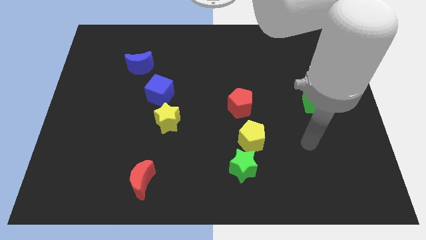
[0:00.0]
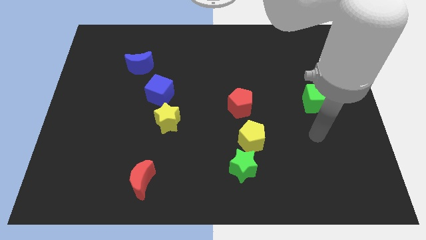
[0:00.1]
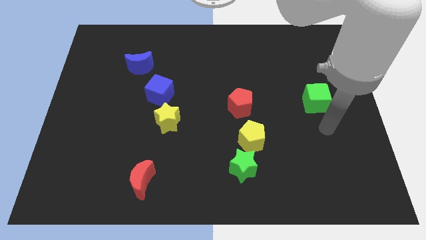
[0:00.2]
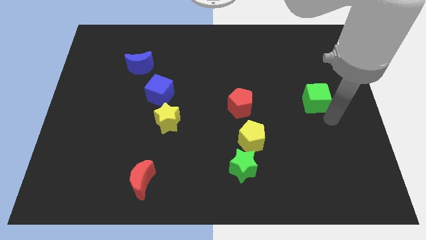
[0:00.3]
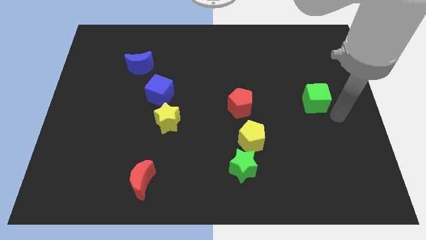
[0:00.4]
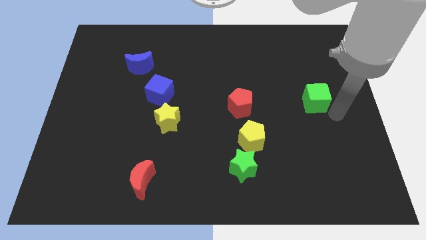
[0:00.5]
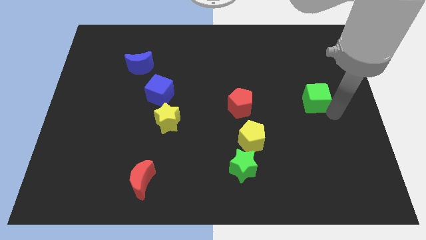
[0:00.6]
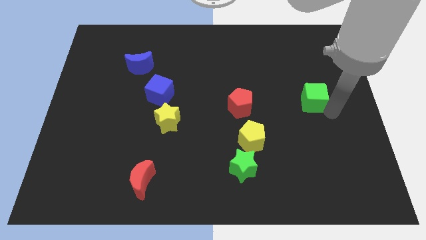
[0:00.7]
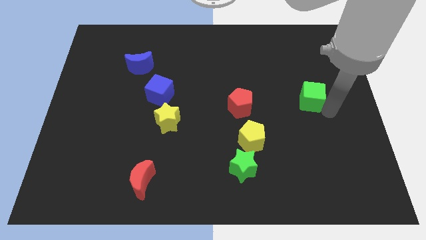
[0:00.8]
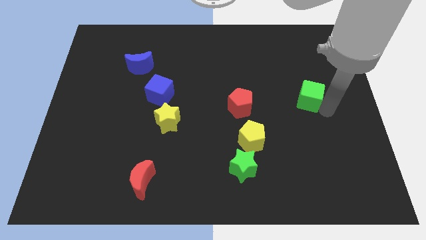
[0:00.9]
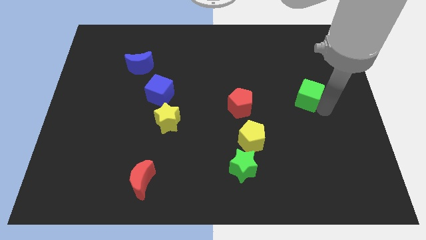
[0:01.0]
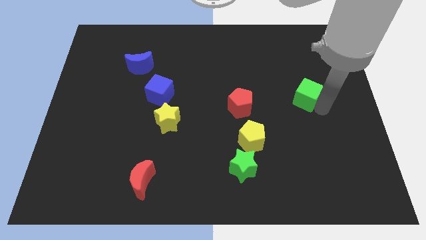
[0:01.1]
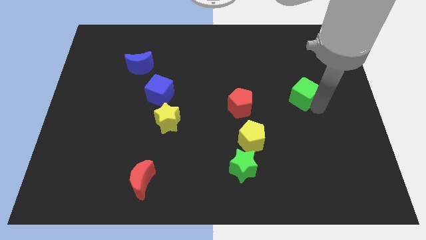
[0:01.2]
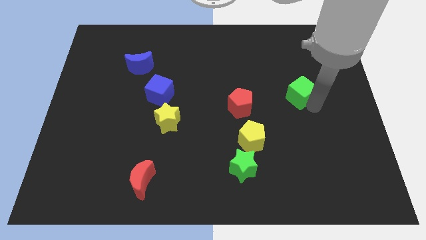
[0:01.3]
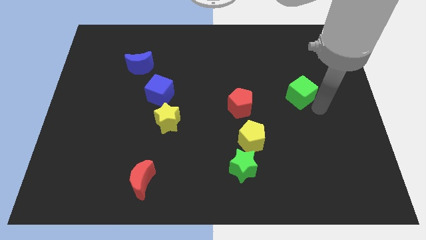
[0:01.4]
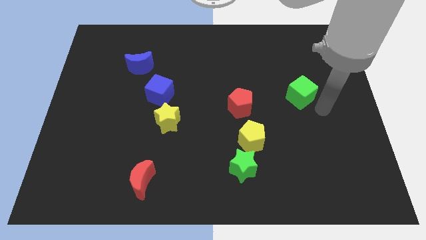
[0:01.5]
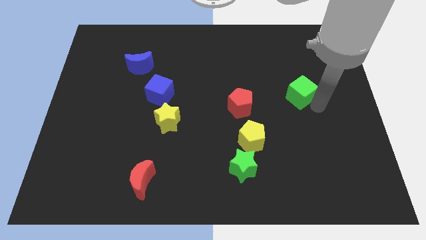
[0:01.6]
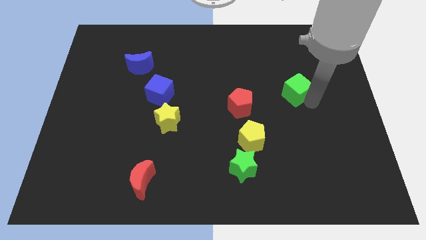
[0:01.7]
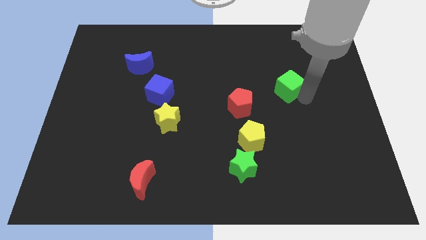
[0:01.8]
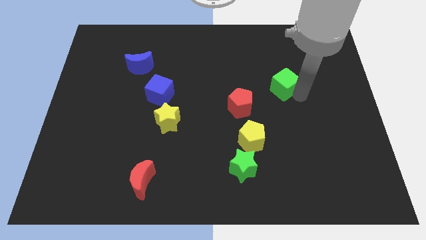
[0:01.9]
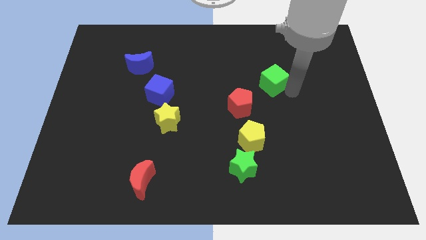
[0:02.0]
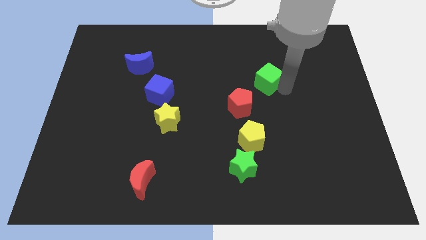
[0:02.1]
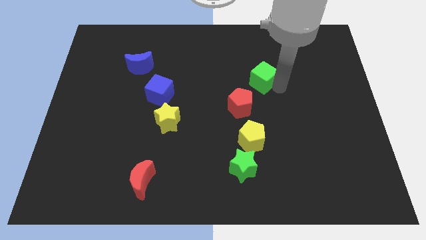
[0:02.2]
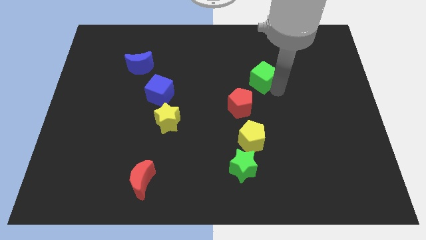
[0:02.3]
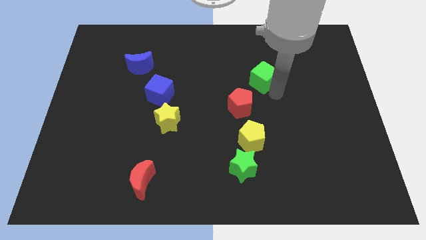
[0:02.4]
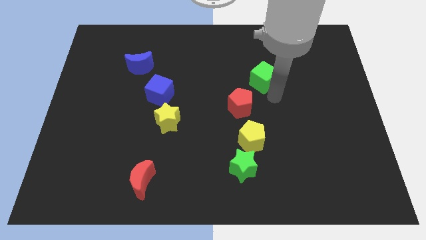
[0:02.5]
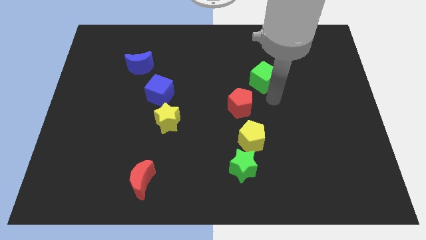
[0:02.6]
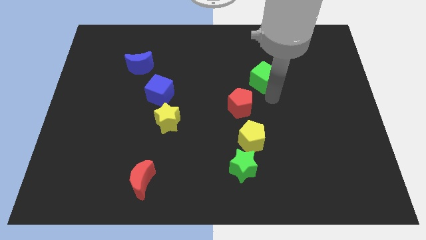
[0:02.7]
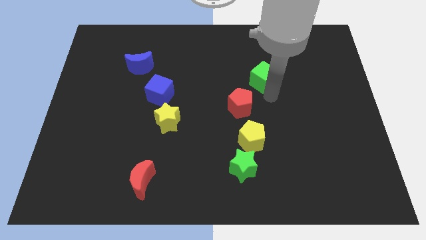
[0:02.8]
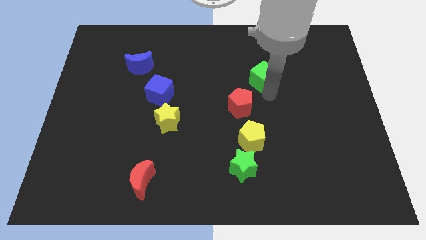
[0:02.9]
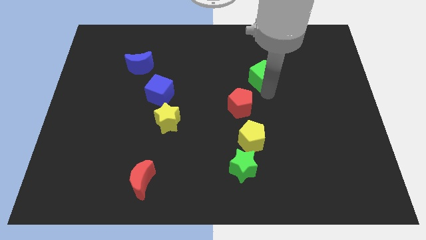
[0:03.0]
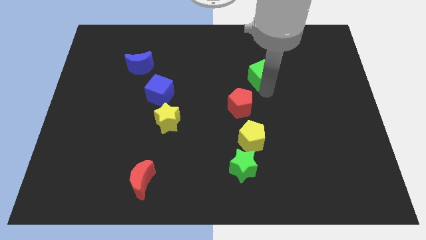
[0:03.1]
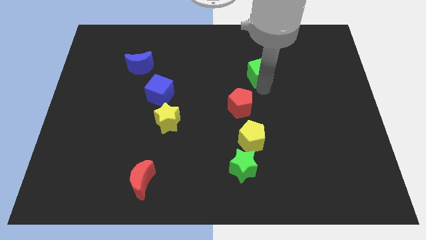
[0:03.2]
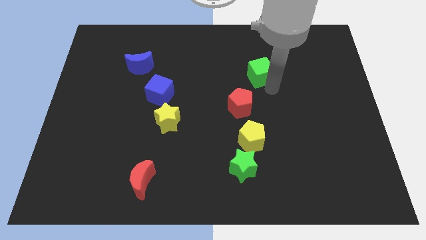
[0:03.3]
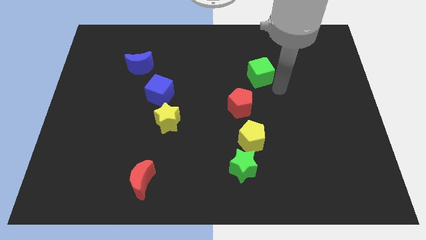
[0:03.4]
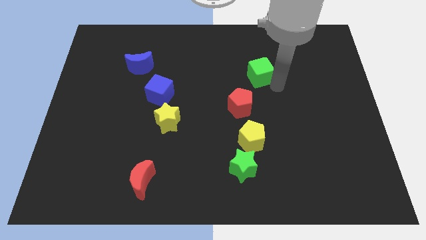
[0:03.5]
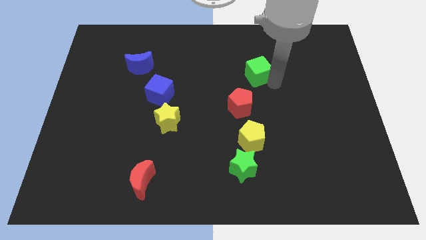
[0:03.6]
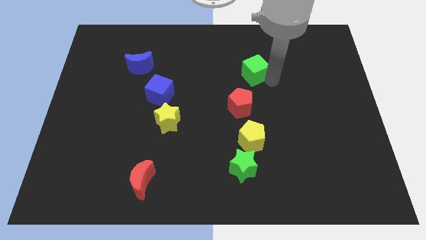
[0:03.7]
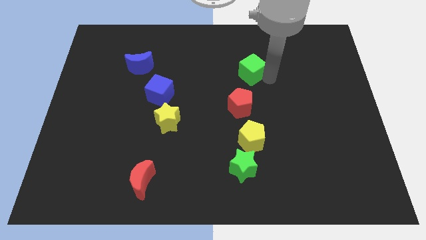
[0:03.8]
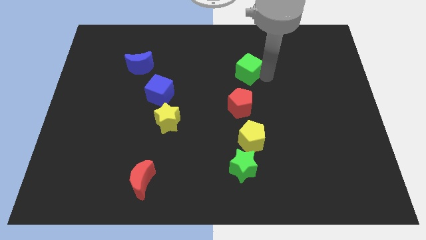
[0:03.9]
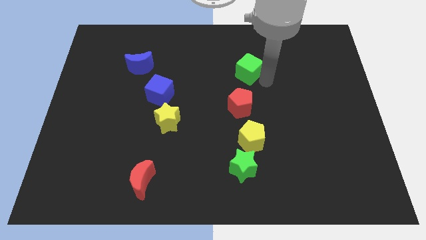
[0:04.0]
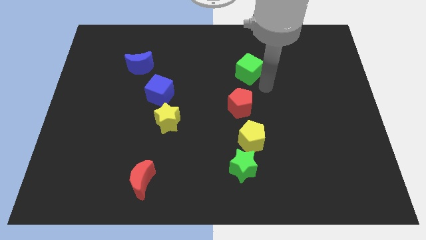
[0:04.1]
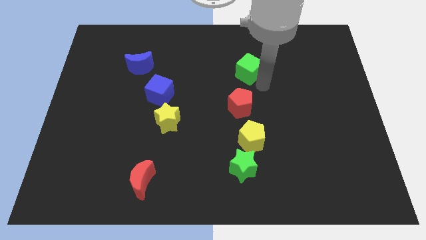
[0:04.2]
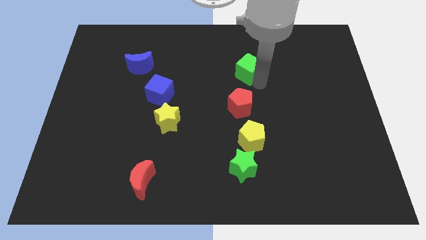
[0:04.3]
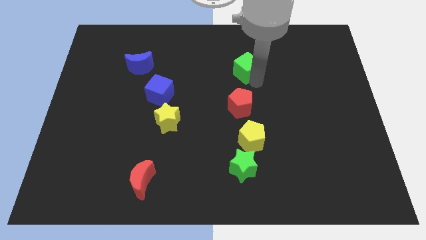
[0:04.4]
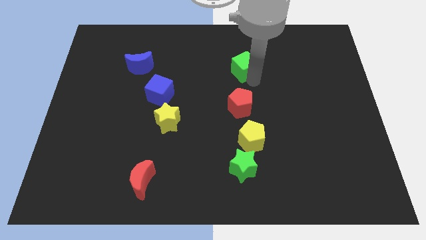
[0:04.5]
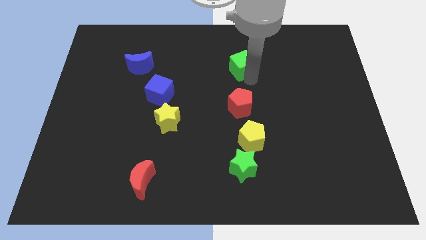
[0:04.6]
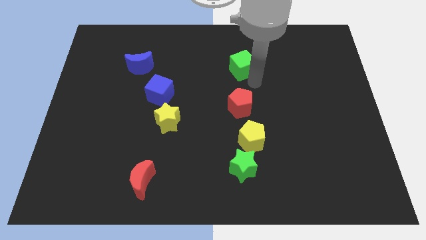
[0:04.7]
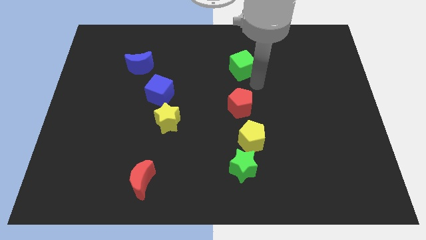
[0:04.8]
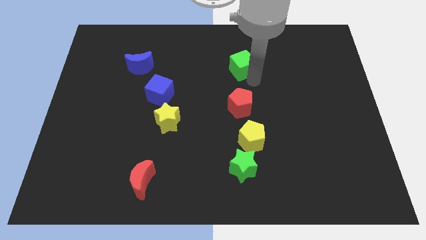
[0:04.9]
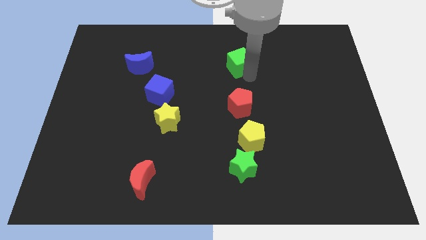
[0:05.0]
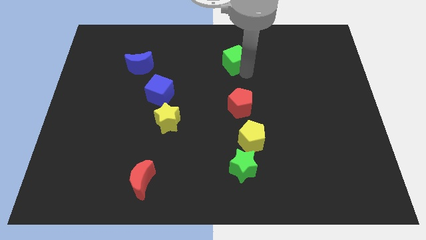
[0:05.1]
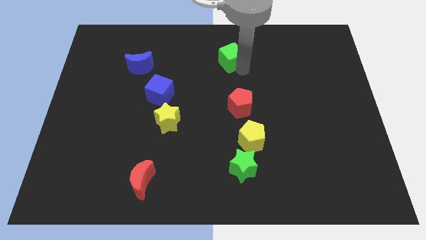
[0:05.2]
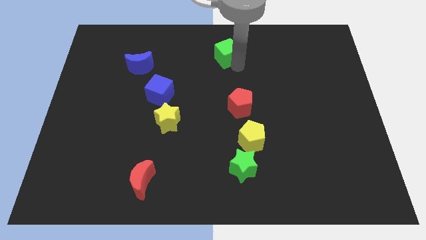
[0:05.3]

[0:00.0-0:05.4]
push the green cube to the top

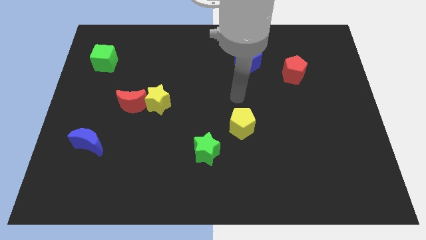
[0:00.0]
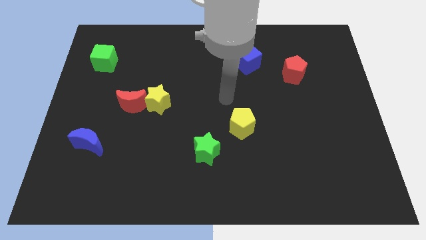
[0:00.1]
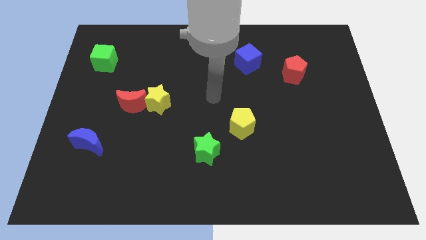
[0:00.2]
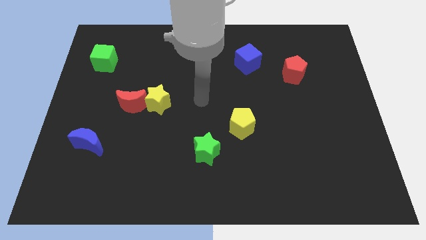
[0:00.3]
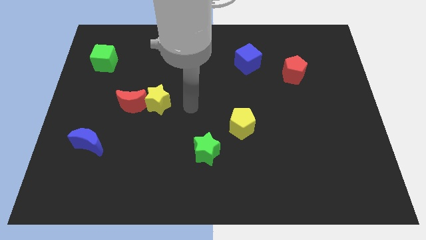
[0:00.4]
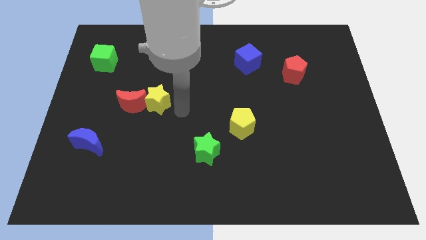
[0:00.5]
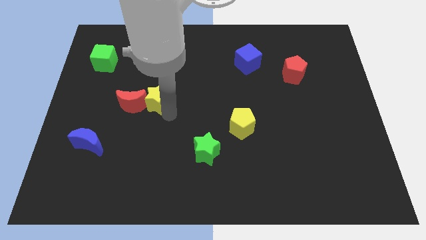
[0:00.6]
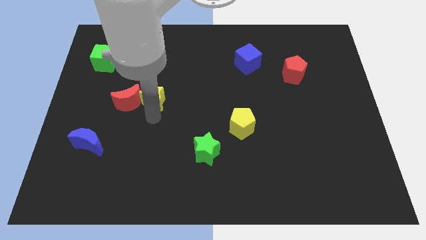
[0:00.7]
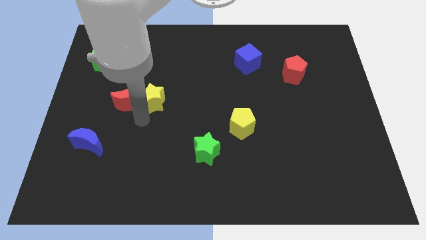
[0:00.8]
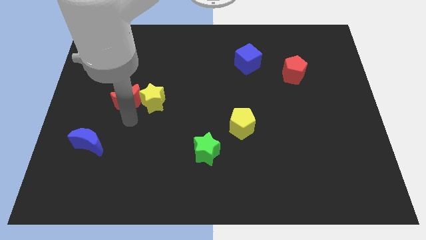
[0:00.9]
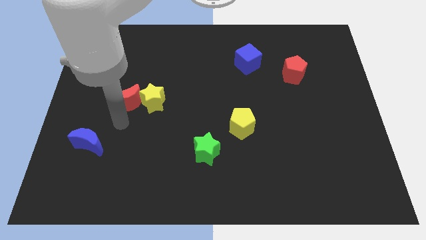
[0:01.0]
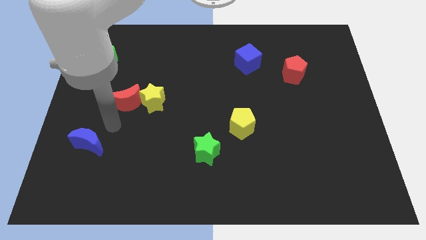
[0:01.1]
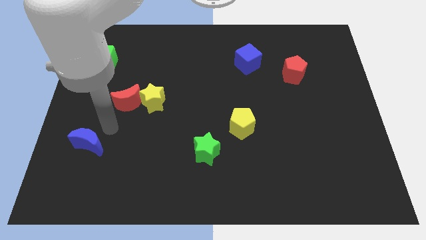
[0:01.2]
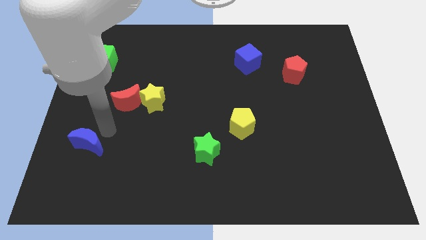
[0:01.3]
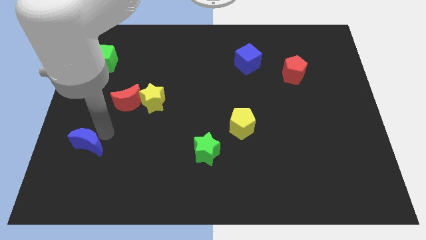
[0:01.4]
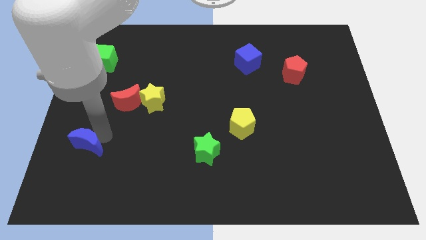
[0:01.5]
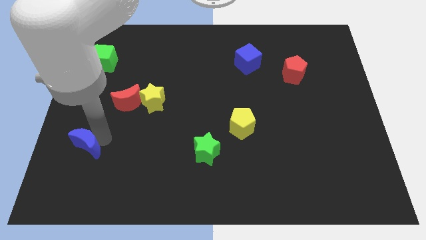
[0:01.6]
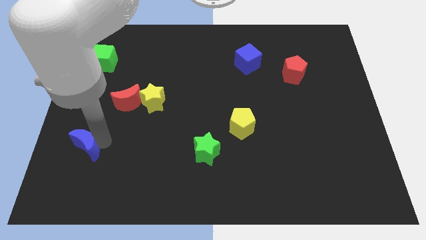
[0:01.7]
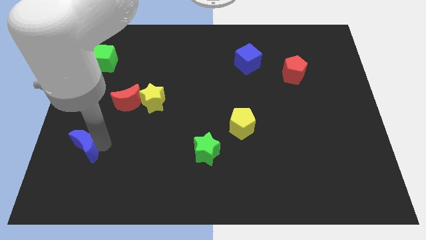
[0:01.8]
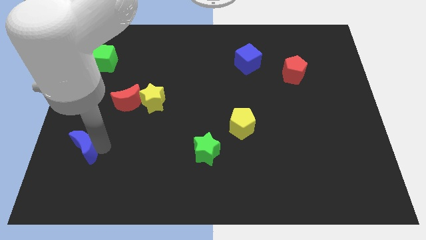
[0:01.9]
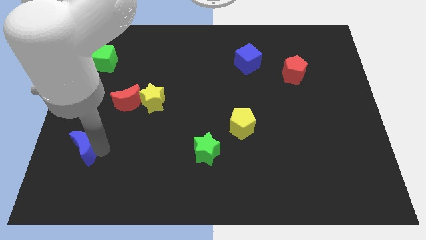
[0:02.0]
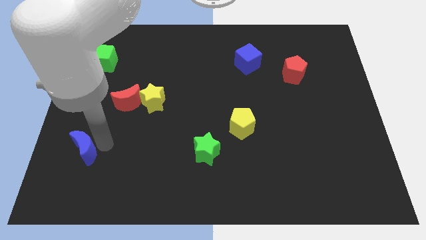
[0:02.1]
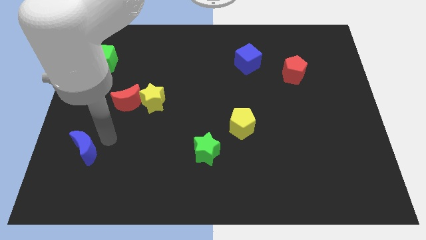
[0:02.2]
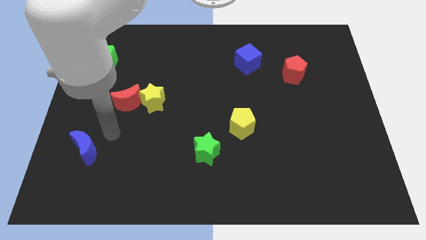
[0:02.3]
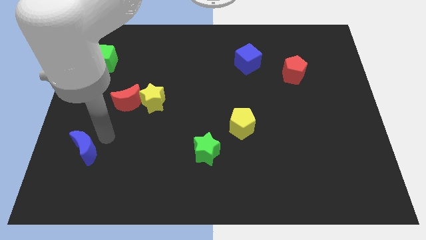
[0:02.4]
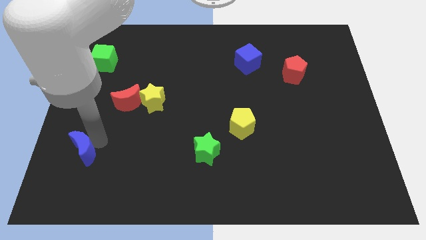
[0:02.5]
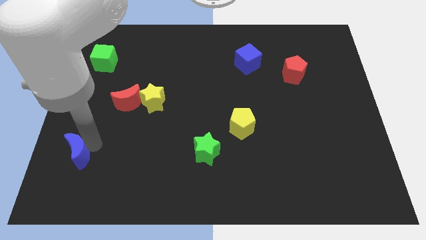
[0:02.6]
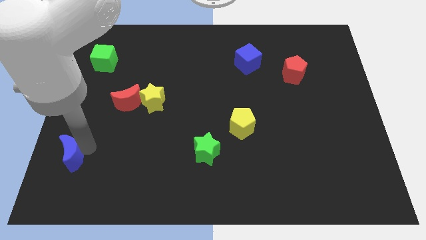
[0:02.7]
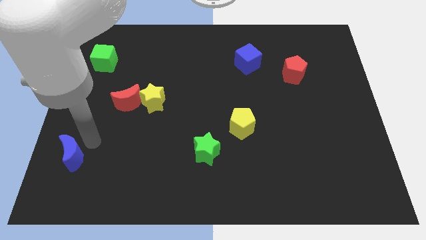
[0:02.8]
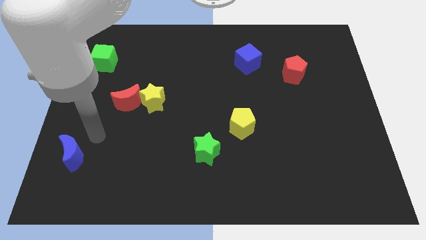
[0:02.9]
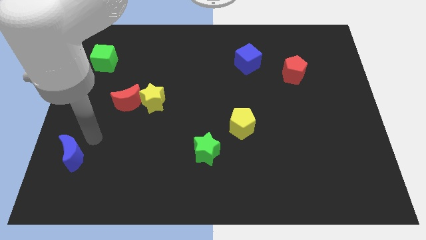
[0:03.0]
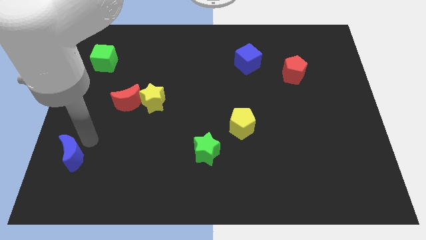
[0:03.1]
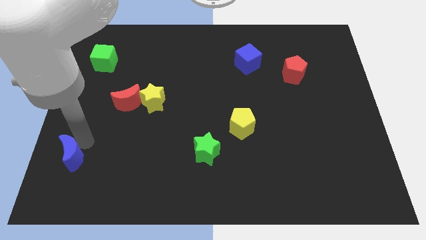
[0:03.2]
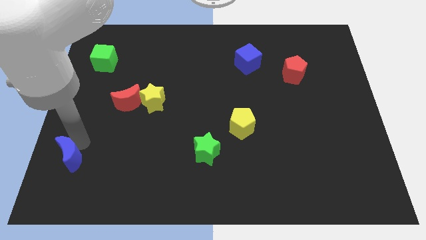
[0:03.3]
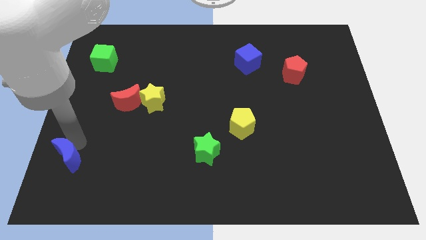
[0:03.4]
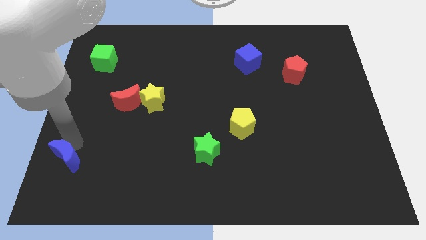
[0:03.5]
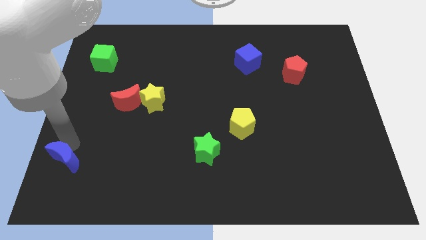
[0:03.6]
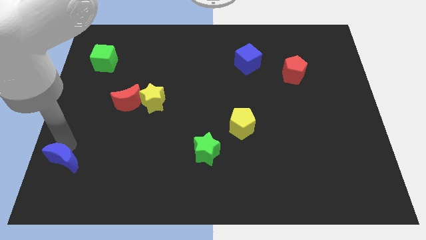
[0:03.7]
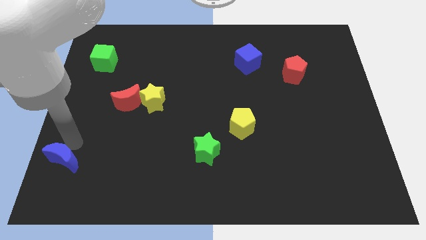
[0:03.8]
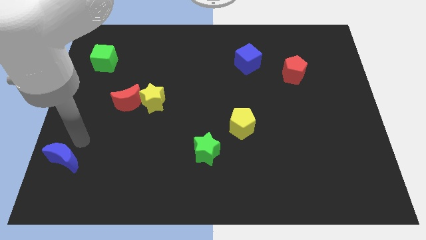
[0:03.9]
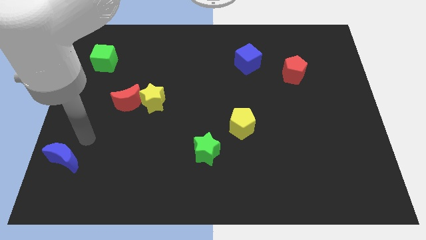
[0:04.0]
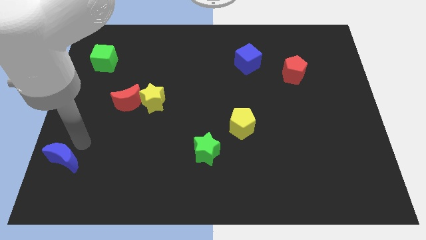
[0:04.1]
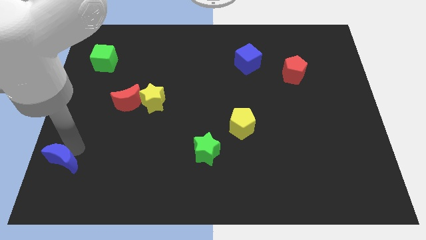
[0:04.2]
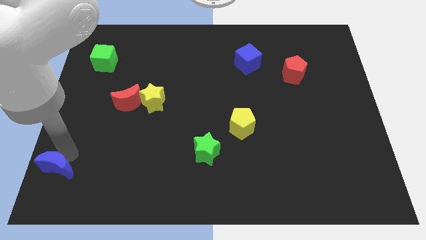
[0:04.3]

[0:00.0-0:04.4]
slide the blue moon to the bottom left corner
